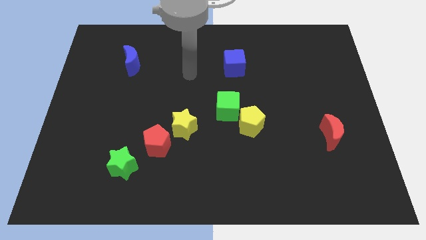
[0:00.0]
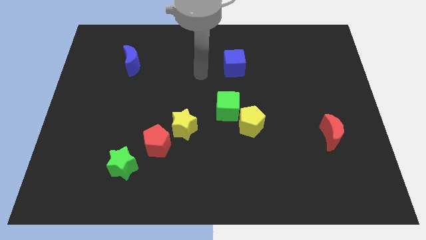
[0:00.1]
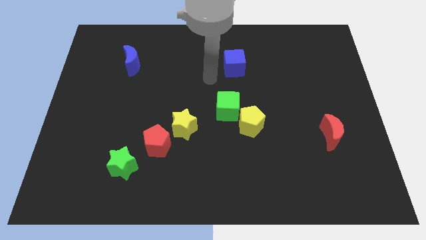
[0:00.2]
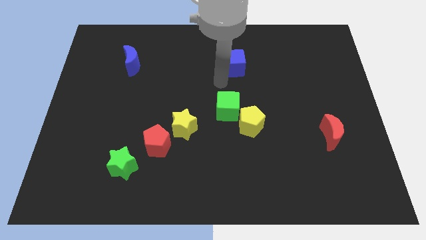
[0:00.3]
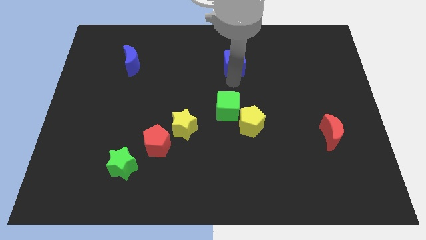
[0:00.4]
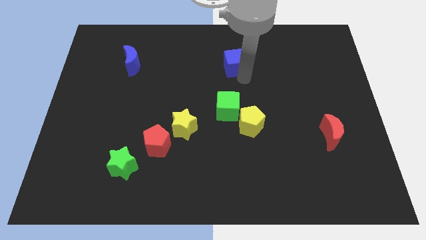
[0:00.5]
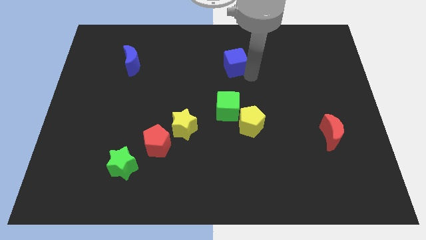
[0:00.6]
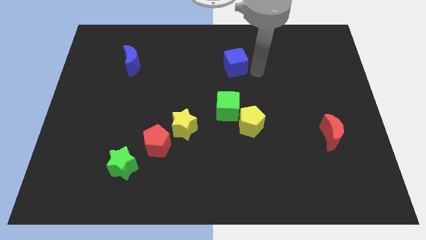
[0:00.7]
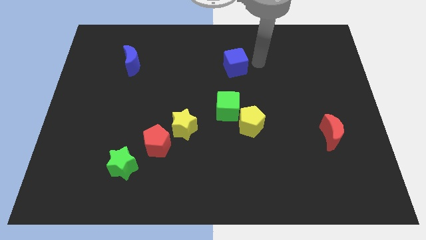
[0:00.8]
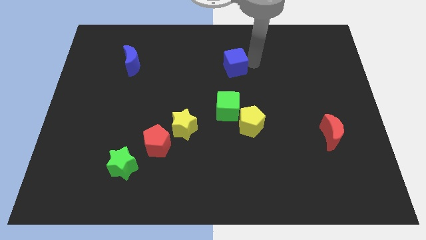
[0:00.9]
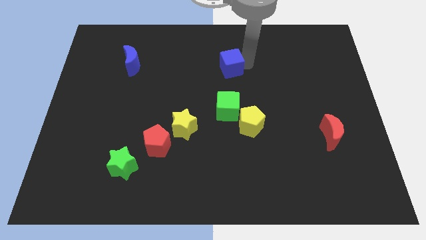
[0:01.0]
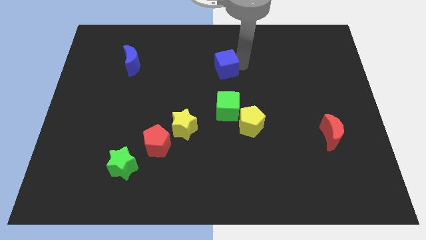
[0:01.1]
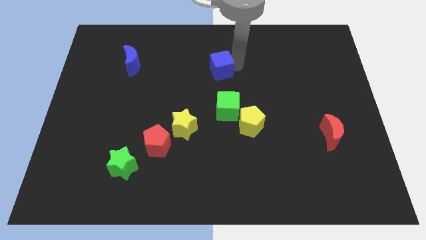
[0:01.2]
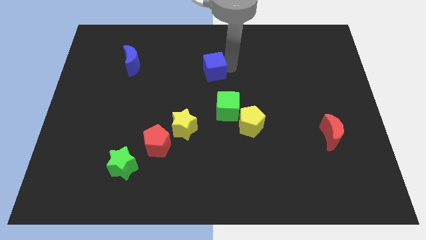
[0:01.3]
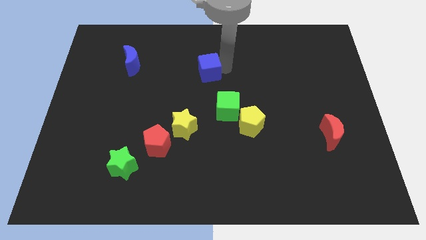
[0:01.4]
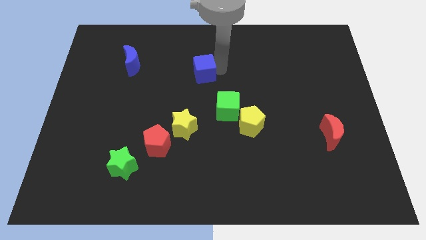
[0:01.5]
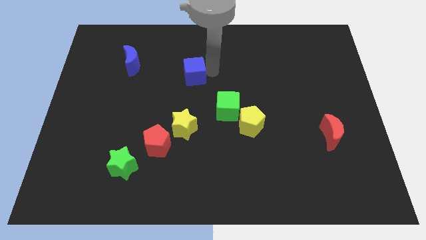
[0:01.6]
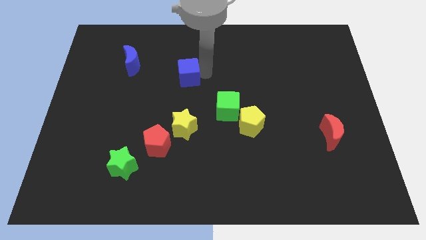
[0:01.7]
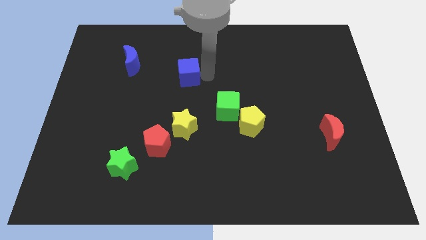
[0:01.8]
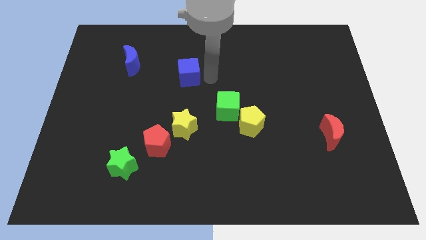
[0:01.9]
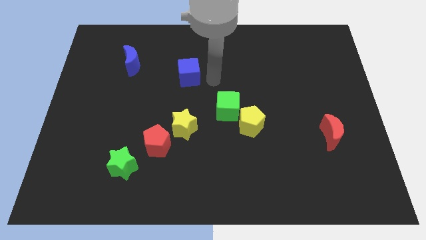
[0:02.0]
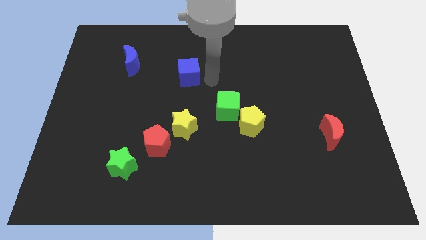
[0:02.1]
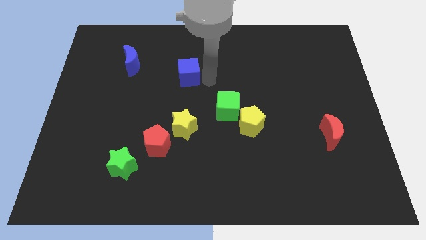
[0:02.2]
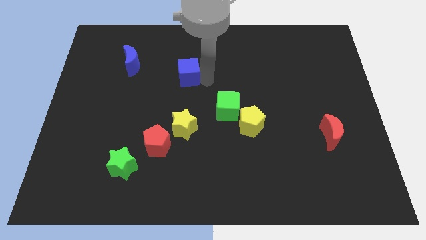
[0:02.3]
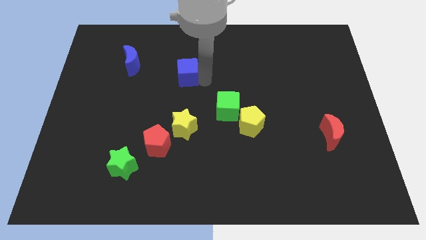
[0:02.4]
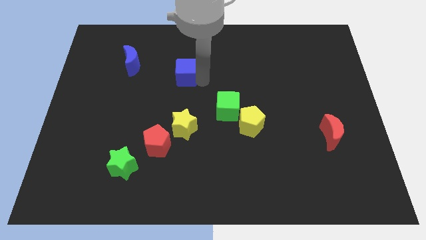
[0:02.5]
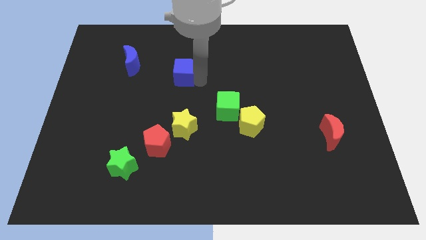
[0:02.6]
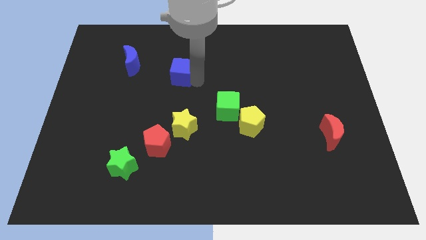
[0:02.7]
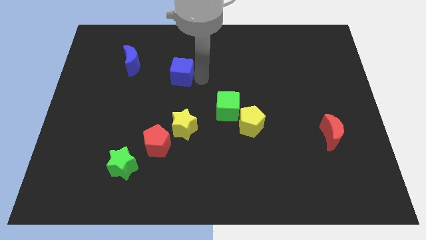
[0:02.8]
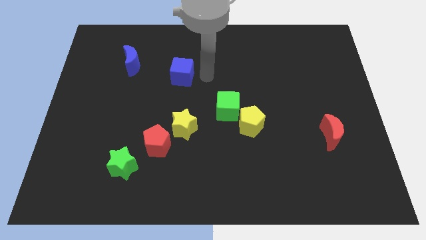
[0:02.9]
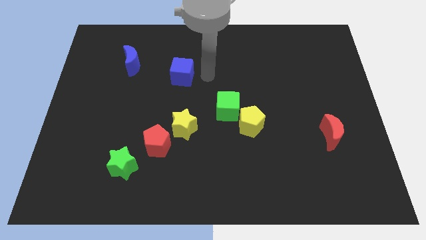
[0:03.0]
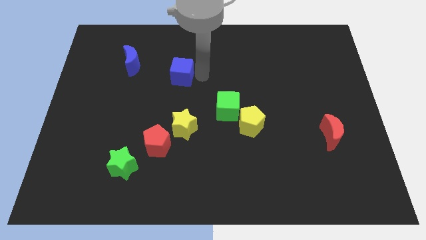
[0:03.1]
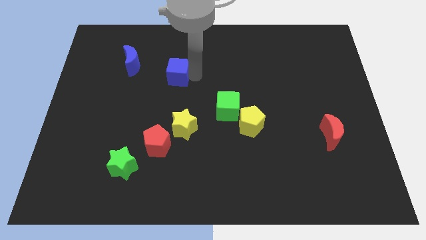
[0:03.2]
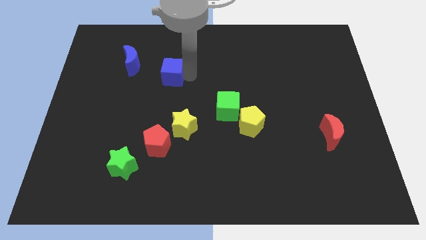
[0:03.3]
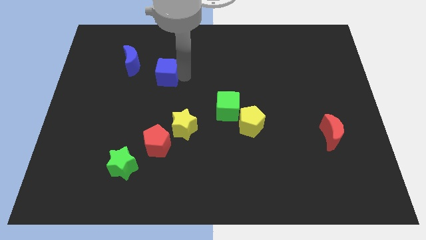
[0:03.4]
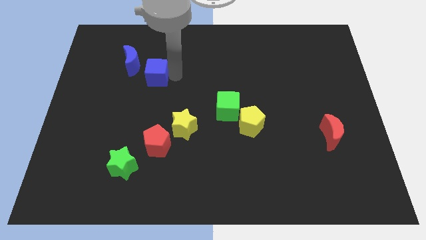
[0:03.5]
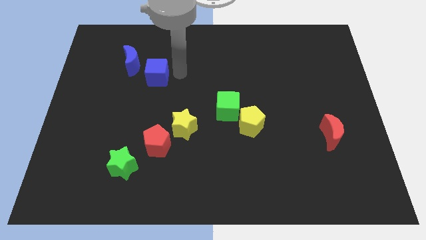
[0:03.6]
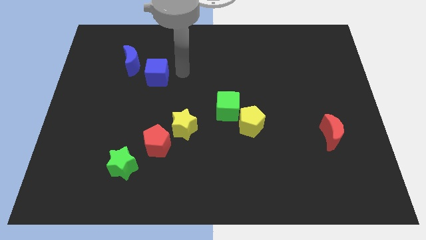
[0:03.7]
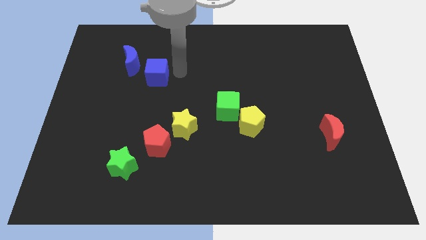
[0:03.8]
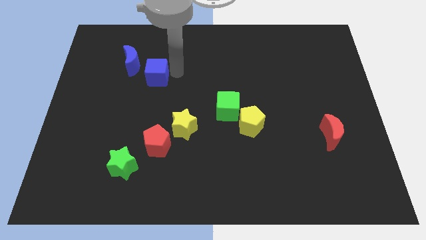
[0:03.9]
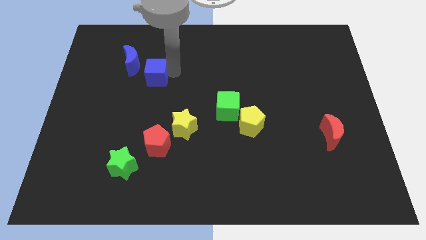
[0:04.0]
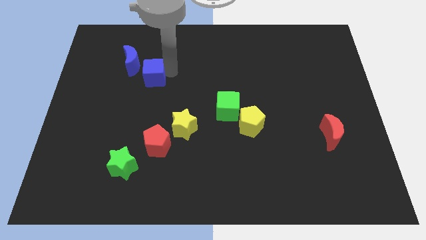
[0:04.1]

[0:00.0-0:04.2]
push the blue cube left

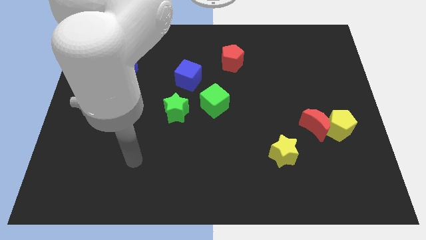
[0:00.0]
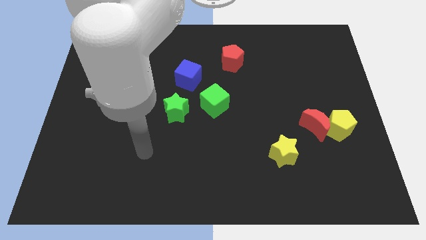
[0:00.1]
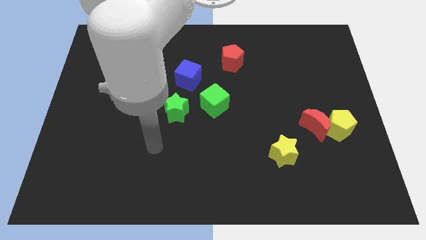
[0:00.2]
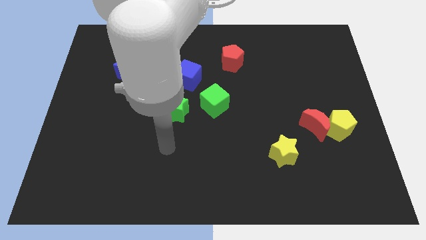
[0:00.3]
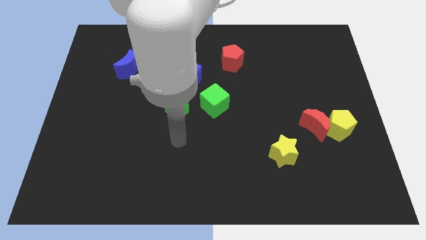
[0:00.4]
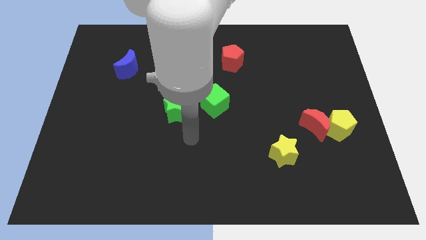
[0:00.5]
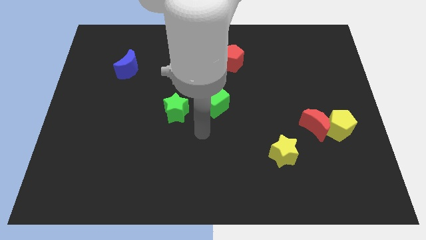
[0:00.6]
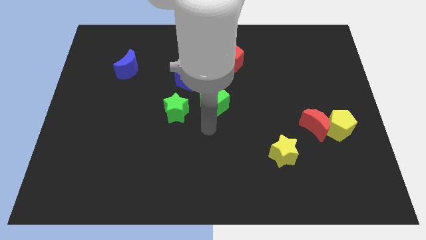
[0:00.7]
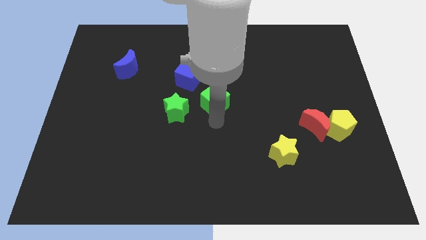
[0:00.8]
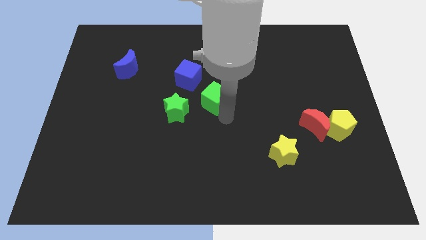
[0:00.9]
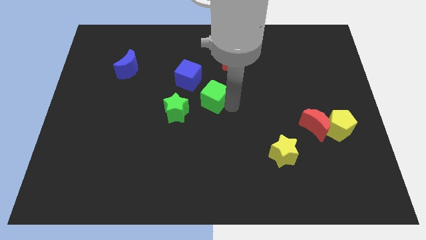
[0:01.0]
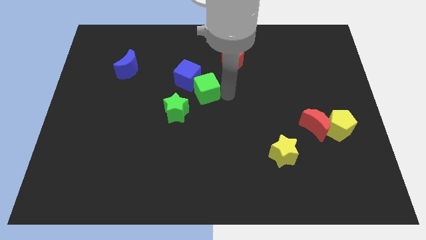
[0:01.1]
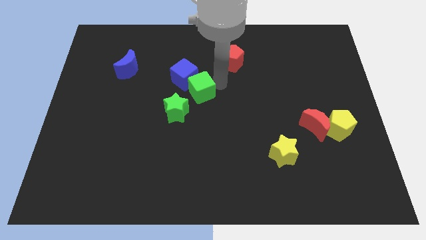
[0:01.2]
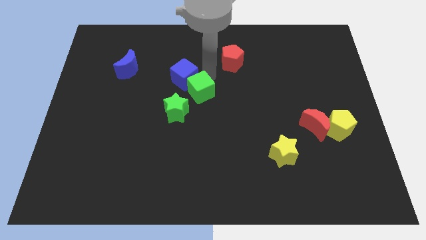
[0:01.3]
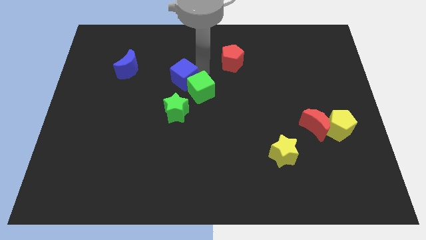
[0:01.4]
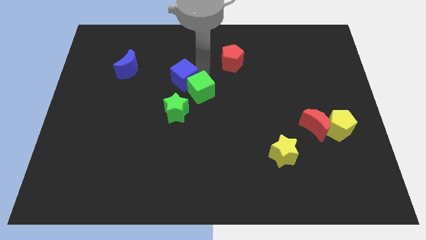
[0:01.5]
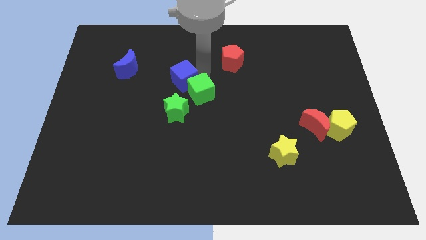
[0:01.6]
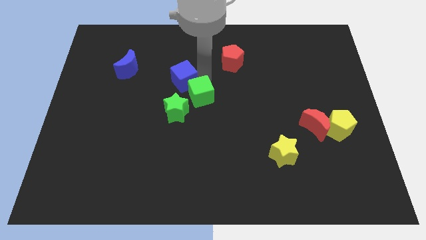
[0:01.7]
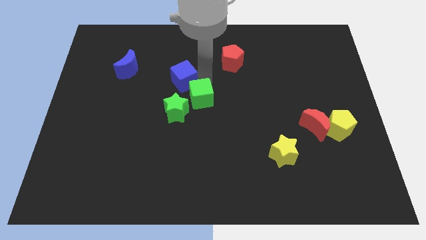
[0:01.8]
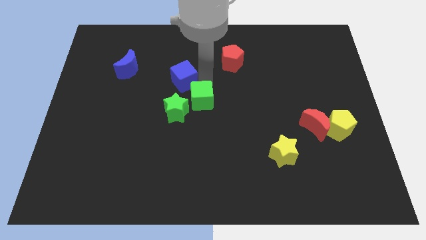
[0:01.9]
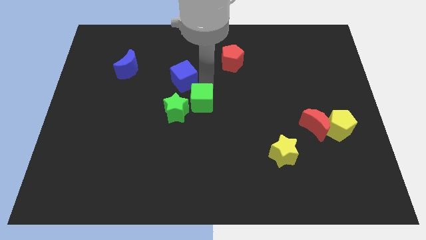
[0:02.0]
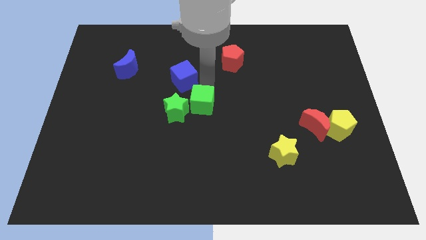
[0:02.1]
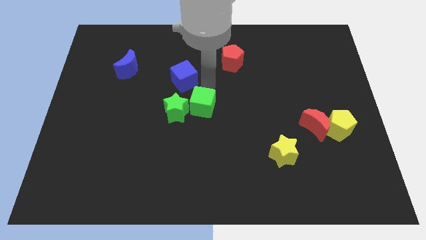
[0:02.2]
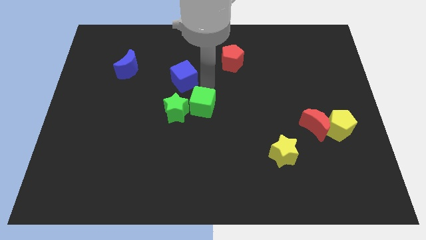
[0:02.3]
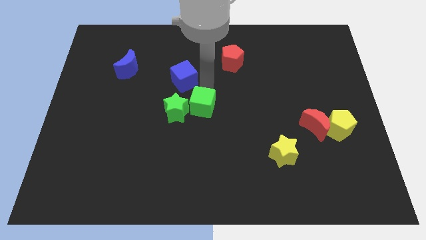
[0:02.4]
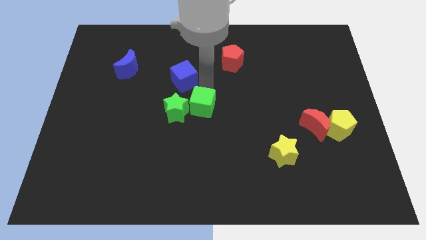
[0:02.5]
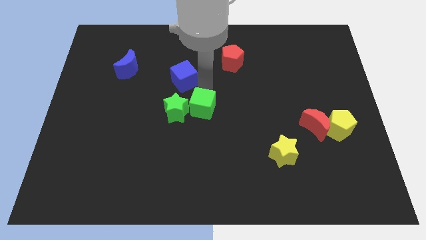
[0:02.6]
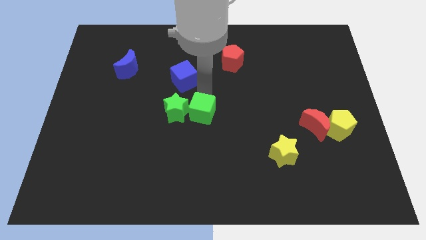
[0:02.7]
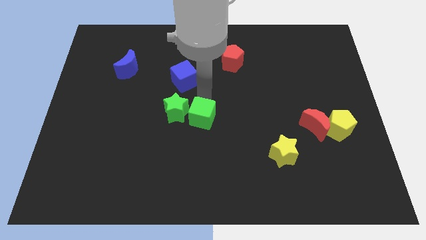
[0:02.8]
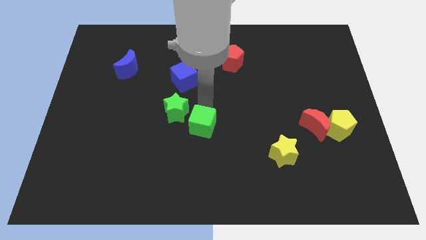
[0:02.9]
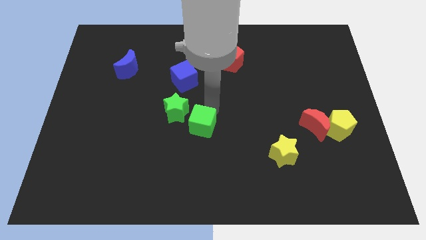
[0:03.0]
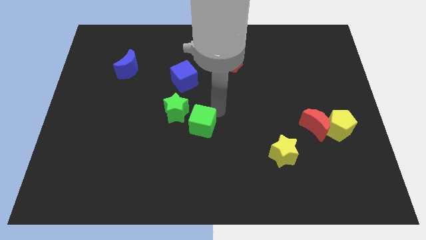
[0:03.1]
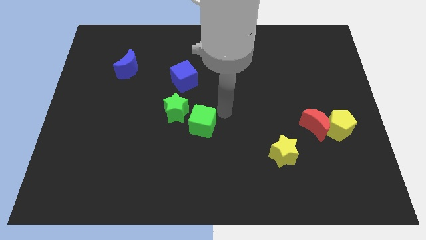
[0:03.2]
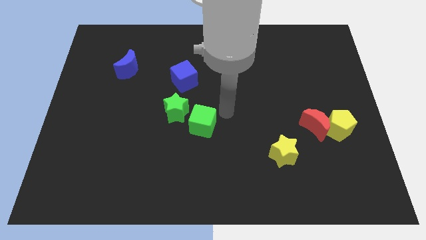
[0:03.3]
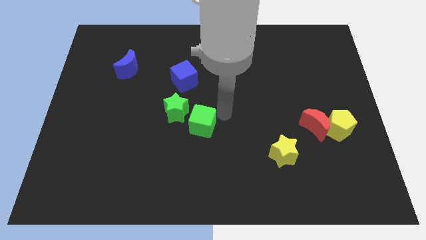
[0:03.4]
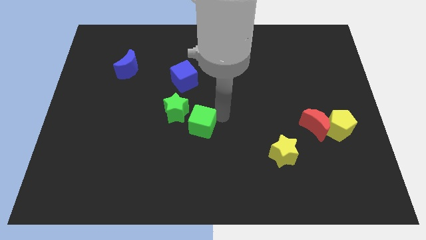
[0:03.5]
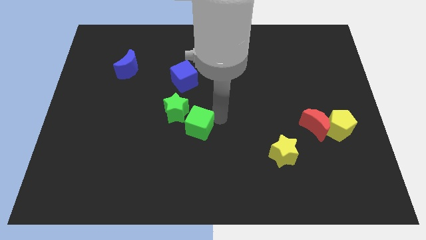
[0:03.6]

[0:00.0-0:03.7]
push the green cube a little bit diagonally downwards and left
